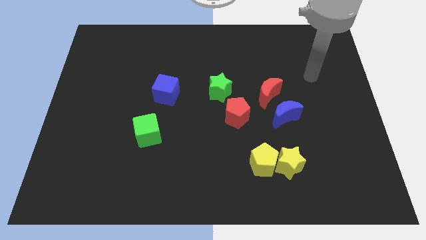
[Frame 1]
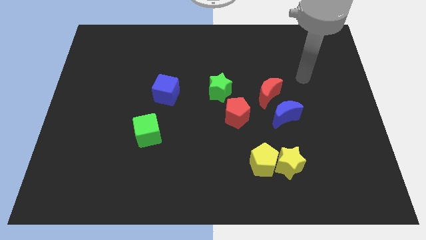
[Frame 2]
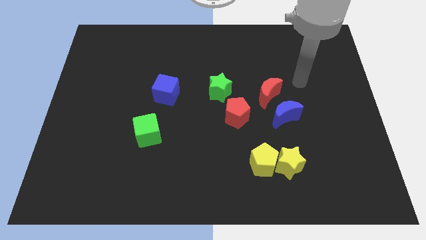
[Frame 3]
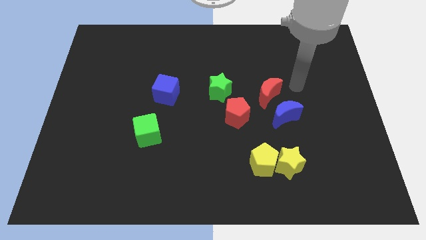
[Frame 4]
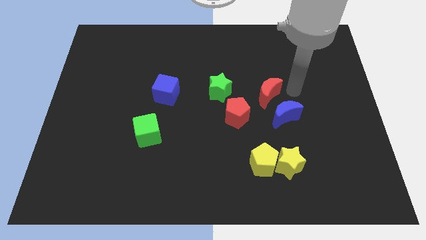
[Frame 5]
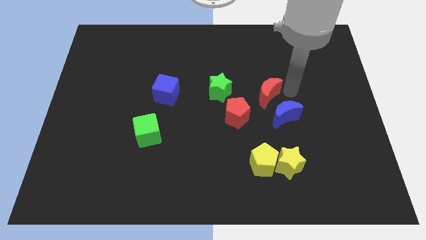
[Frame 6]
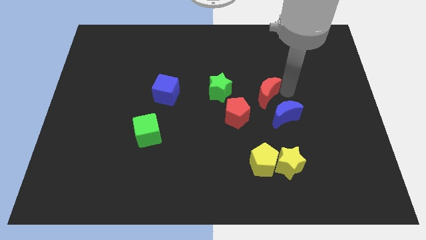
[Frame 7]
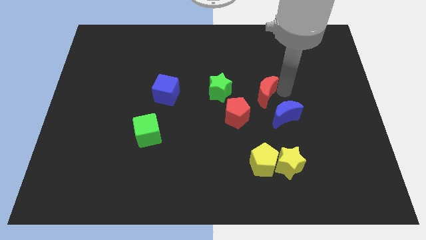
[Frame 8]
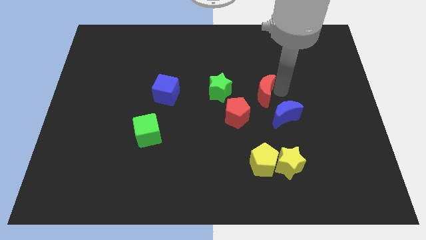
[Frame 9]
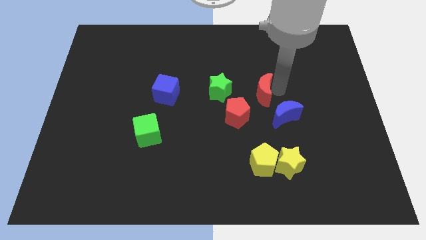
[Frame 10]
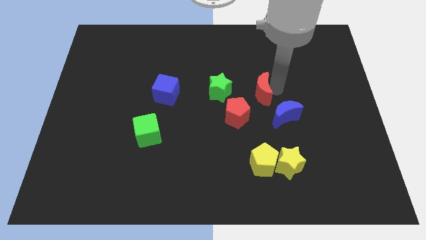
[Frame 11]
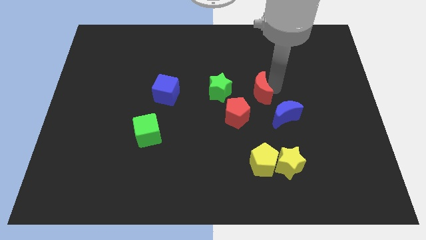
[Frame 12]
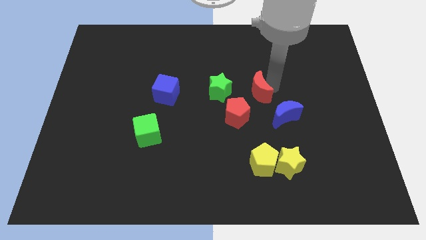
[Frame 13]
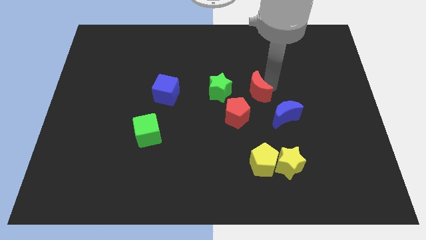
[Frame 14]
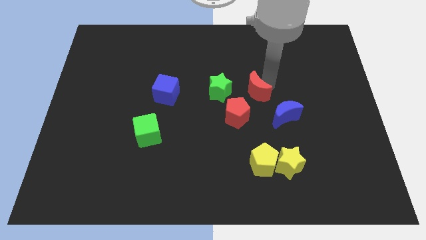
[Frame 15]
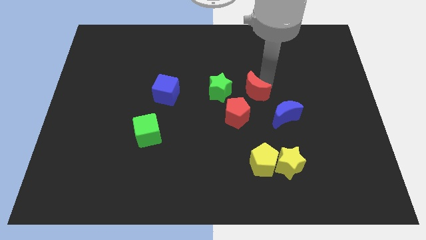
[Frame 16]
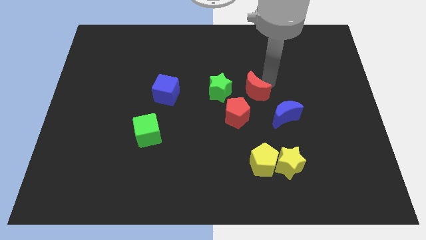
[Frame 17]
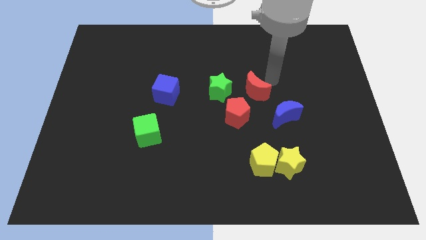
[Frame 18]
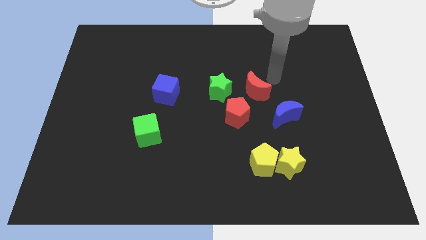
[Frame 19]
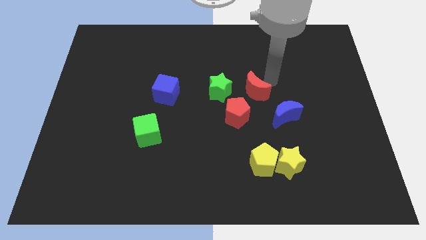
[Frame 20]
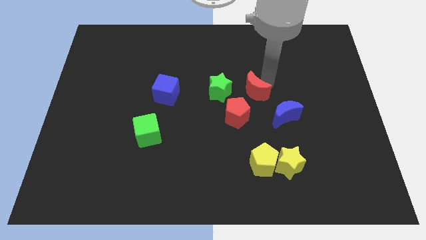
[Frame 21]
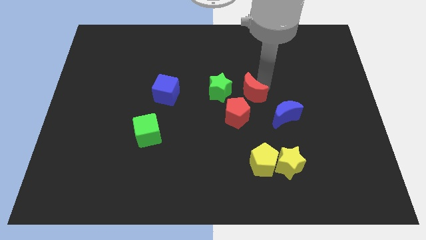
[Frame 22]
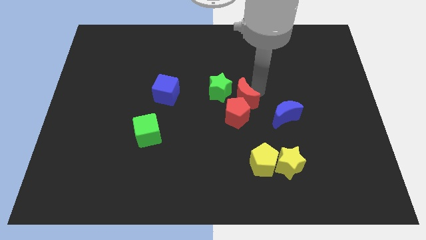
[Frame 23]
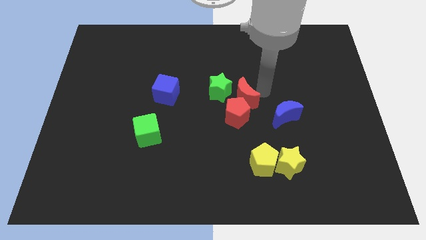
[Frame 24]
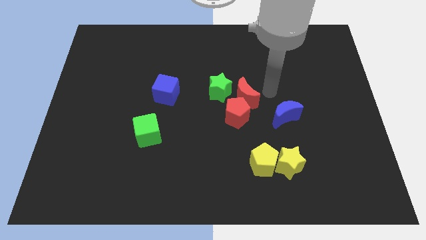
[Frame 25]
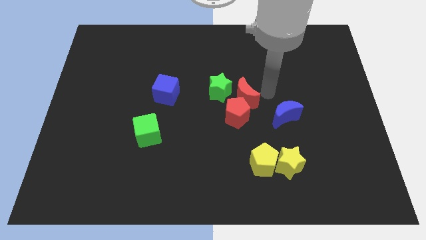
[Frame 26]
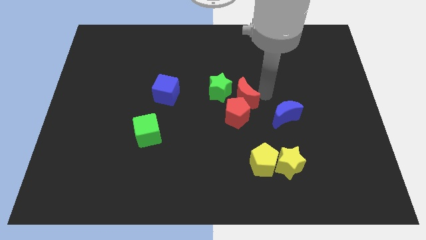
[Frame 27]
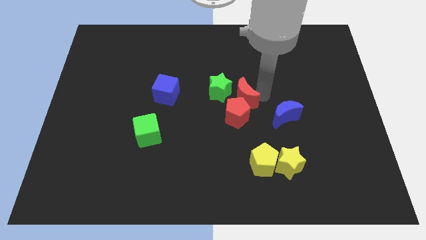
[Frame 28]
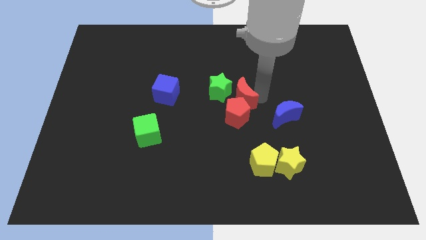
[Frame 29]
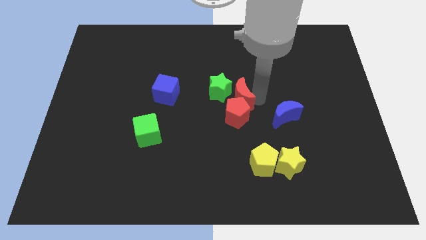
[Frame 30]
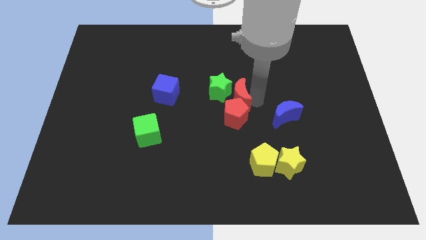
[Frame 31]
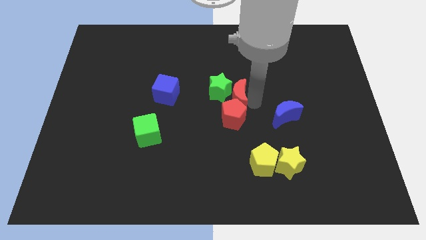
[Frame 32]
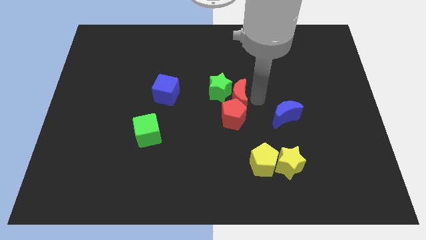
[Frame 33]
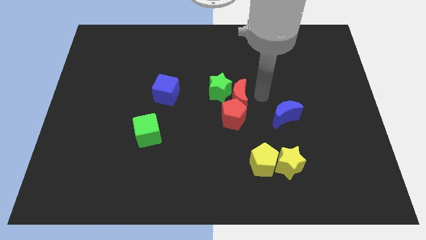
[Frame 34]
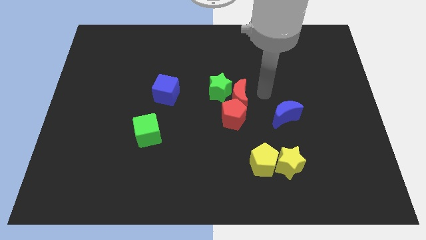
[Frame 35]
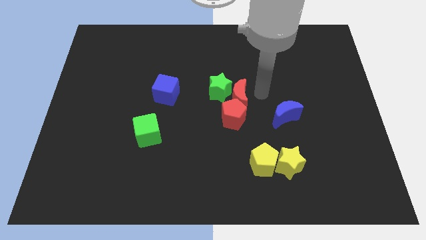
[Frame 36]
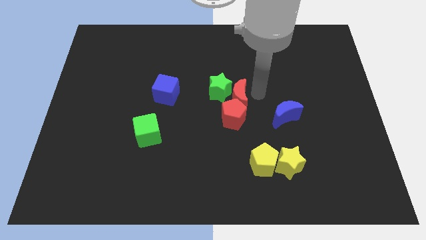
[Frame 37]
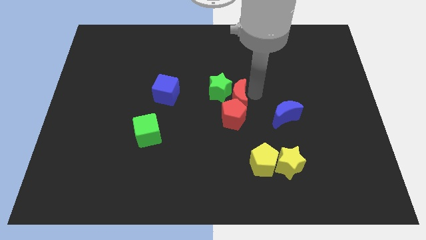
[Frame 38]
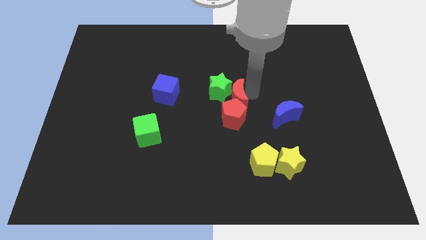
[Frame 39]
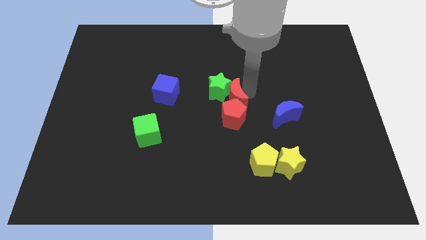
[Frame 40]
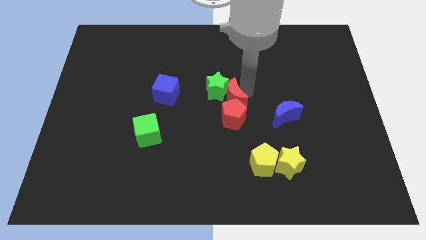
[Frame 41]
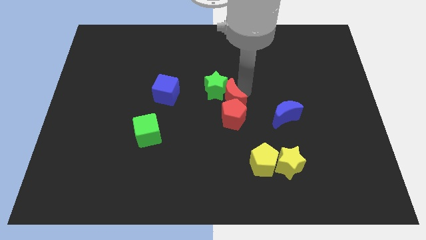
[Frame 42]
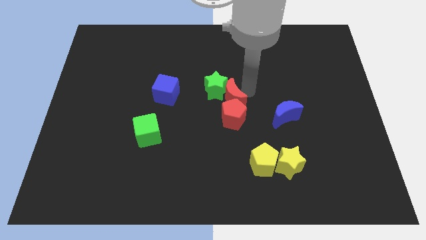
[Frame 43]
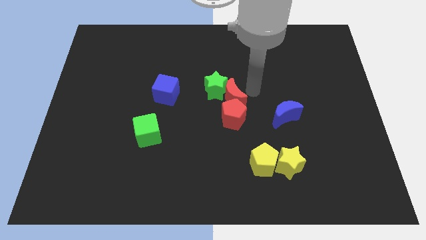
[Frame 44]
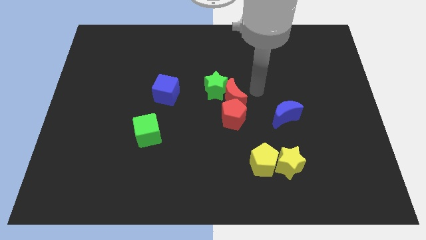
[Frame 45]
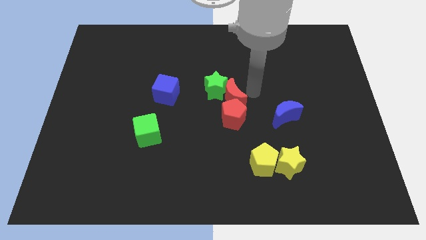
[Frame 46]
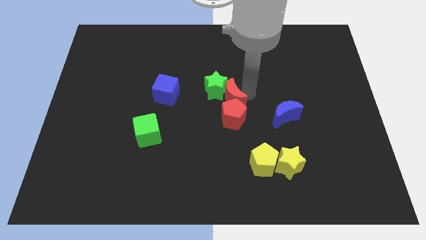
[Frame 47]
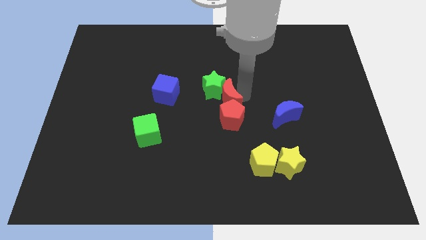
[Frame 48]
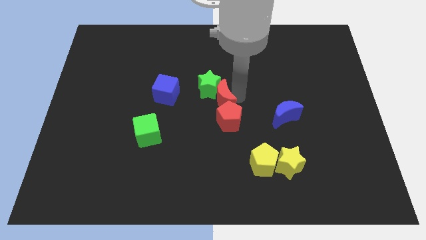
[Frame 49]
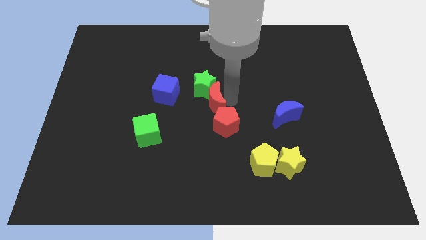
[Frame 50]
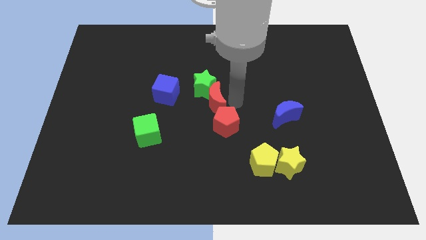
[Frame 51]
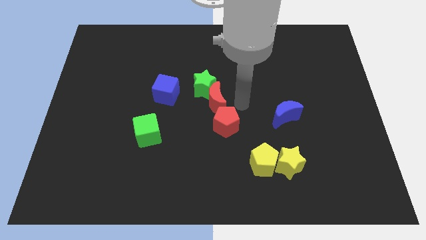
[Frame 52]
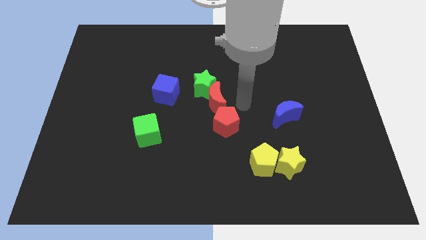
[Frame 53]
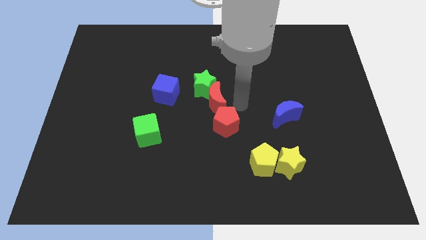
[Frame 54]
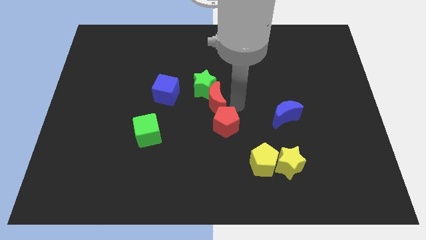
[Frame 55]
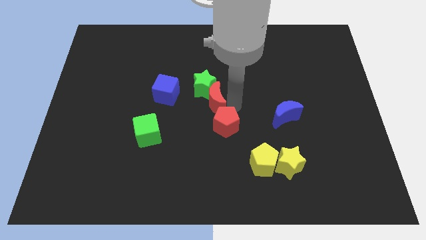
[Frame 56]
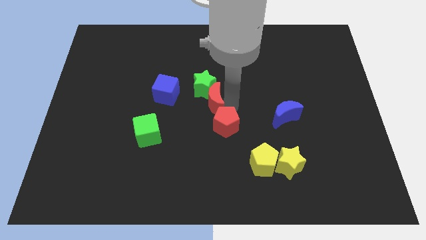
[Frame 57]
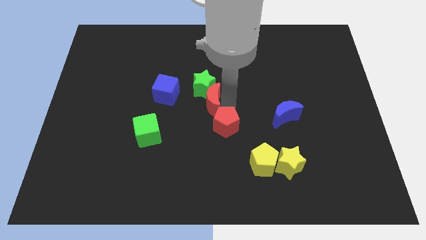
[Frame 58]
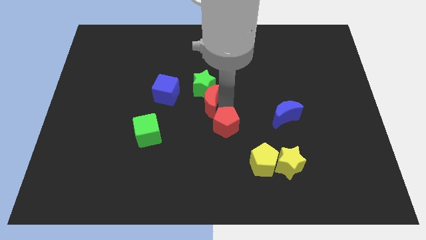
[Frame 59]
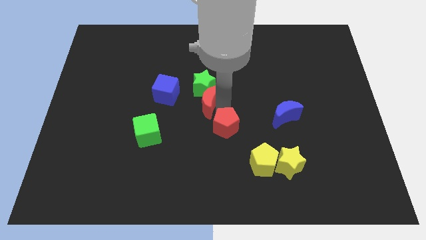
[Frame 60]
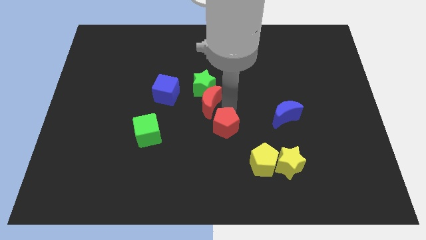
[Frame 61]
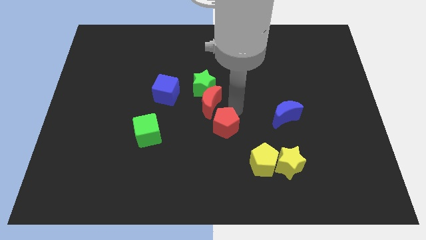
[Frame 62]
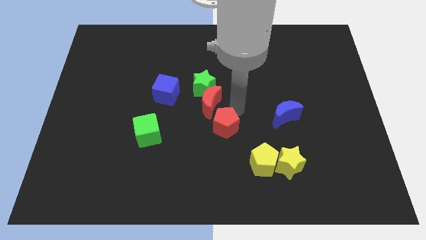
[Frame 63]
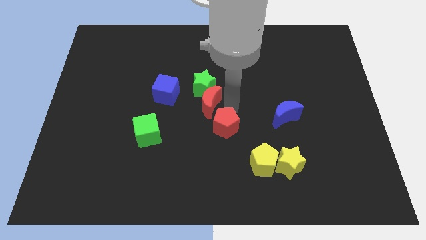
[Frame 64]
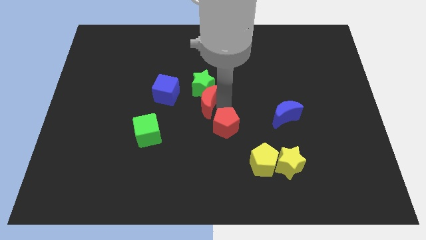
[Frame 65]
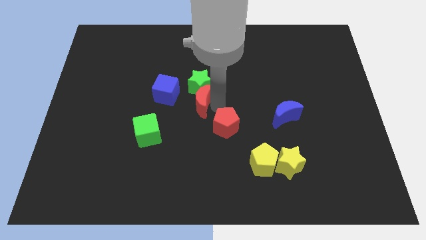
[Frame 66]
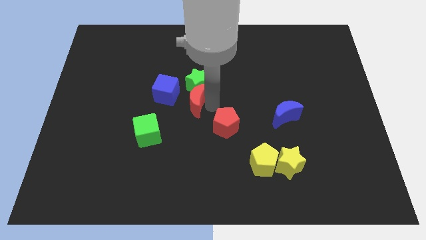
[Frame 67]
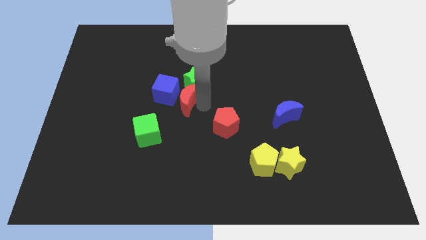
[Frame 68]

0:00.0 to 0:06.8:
push the red moon next to the blue cube

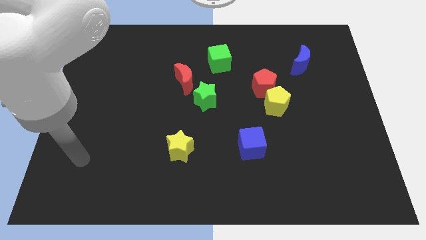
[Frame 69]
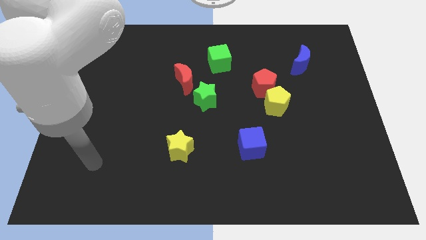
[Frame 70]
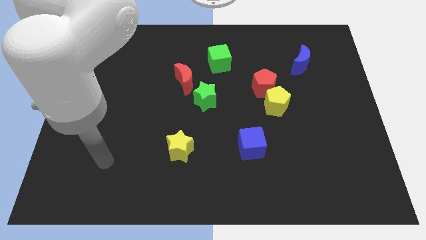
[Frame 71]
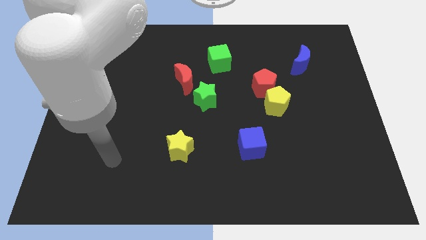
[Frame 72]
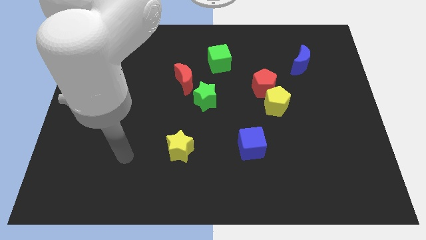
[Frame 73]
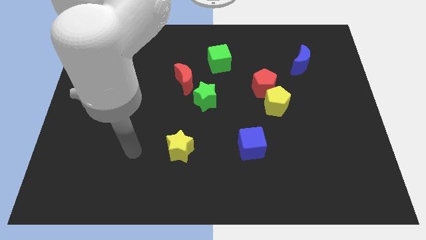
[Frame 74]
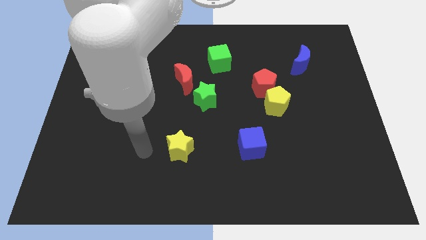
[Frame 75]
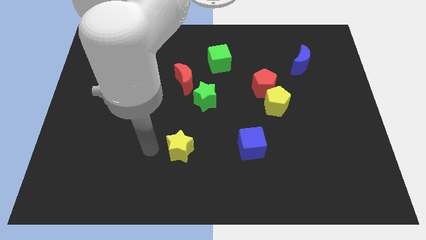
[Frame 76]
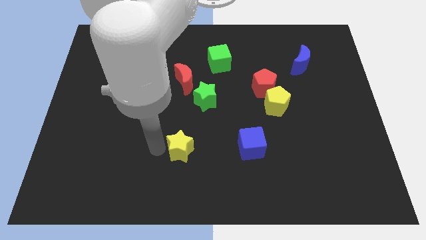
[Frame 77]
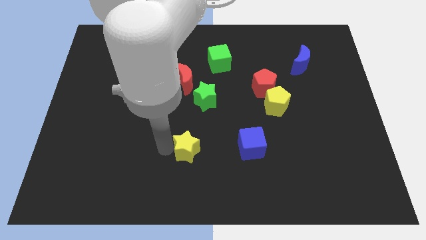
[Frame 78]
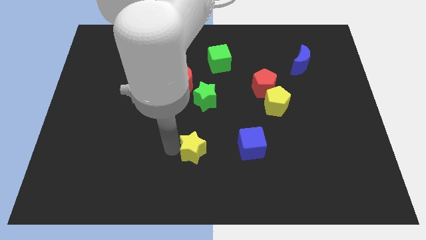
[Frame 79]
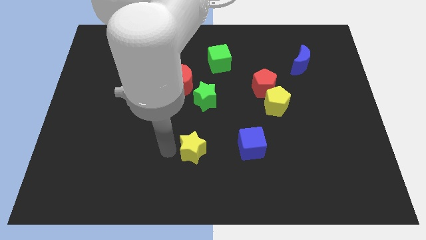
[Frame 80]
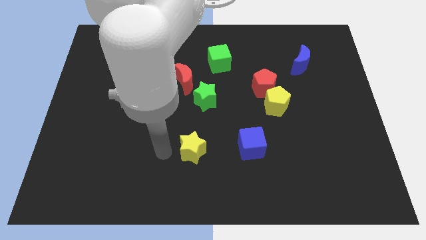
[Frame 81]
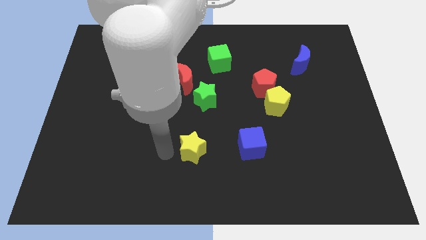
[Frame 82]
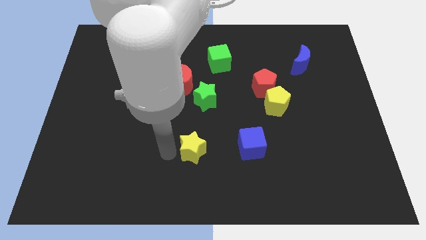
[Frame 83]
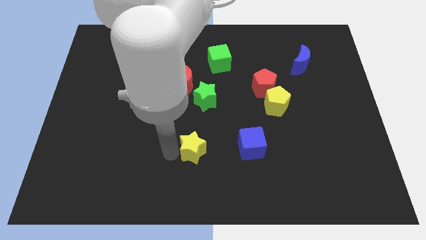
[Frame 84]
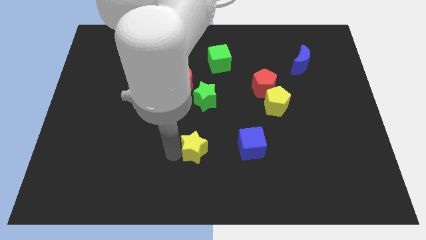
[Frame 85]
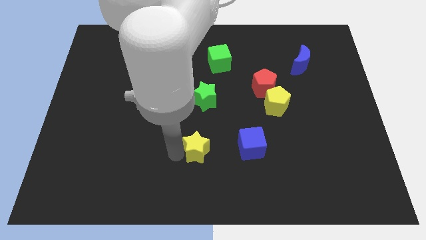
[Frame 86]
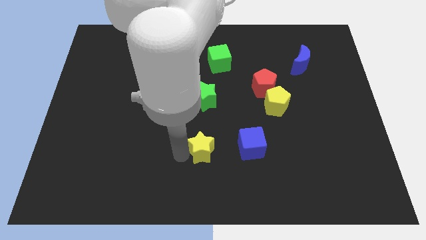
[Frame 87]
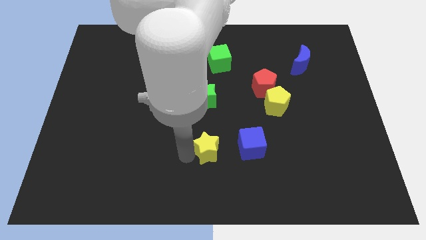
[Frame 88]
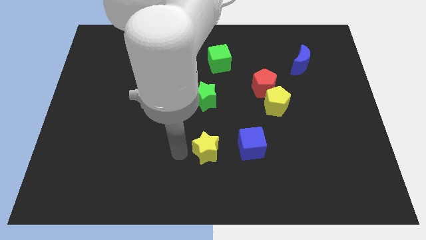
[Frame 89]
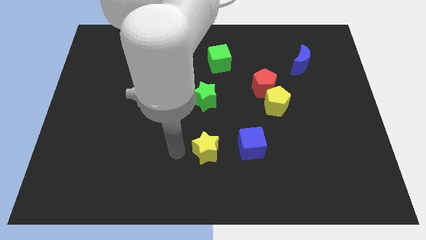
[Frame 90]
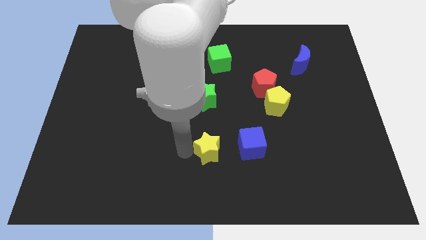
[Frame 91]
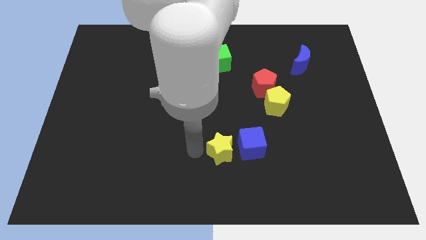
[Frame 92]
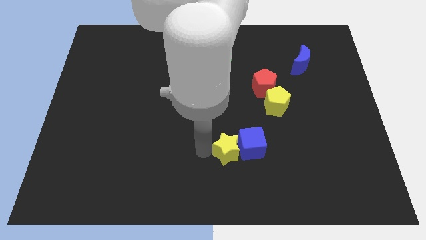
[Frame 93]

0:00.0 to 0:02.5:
put the yellow star to the blue cube
